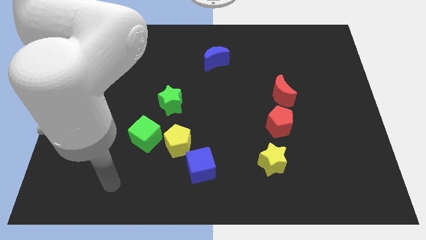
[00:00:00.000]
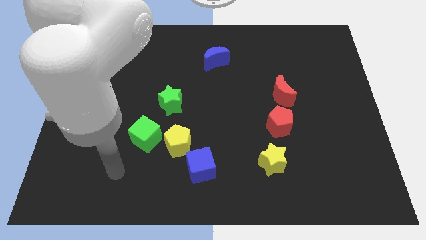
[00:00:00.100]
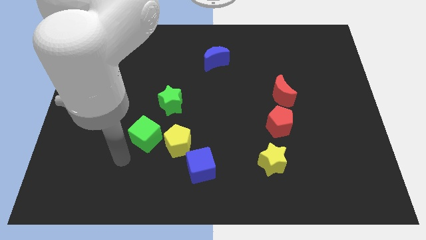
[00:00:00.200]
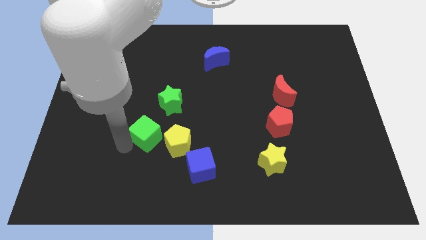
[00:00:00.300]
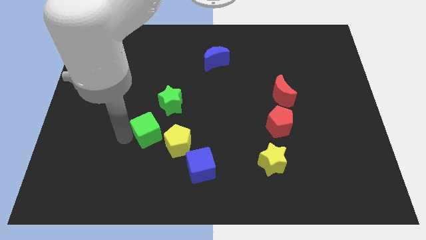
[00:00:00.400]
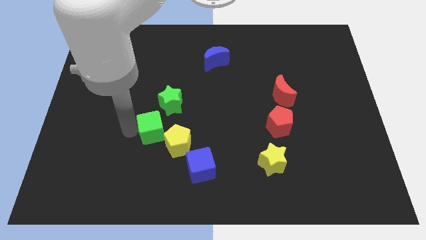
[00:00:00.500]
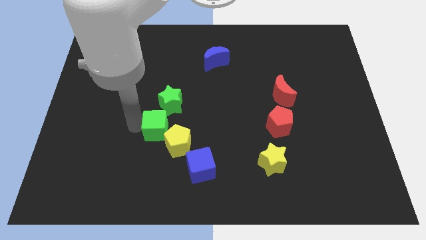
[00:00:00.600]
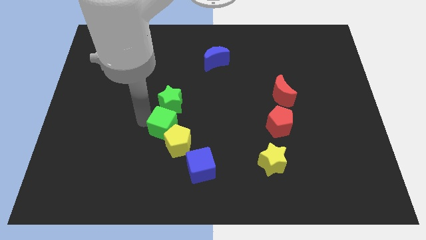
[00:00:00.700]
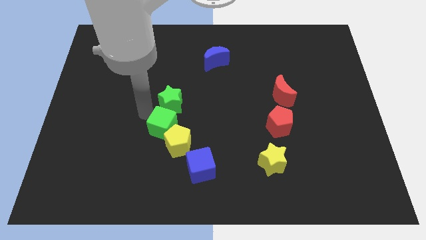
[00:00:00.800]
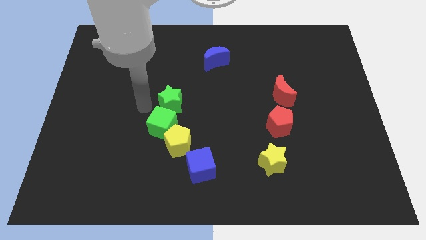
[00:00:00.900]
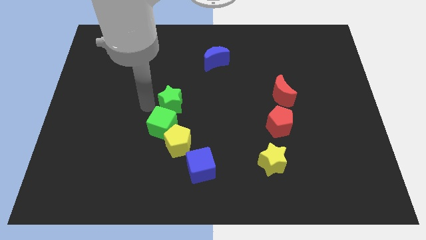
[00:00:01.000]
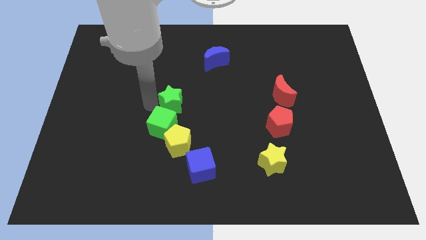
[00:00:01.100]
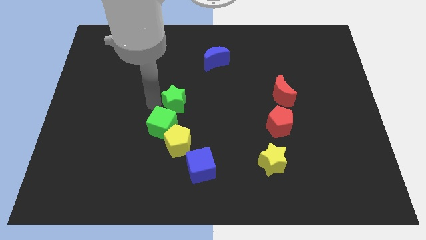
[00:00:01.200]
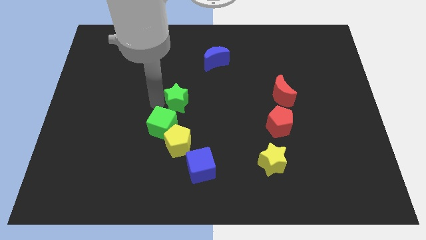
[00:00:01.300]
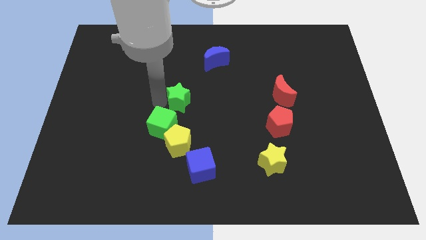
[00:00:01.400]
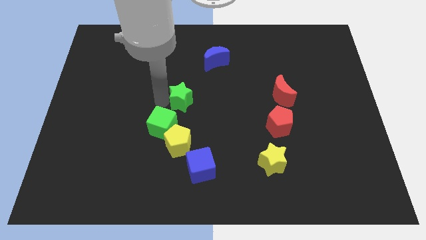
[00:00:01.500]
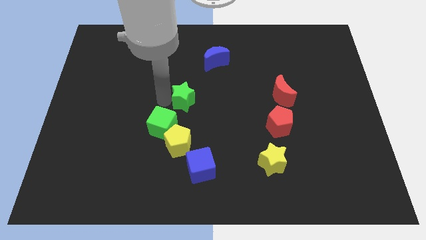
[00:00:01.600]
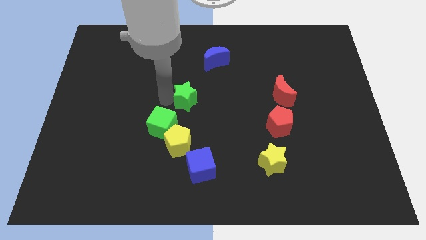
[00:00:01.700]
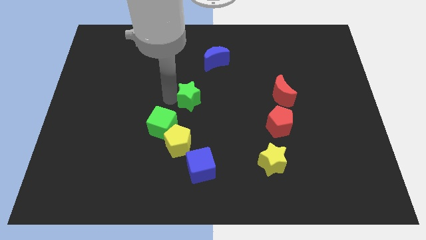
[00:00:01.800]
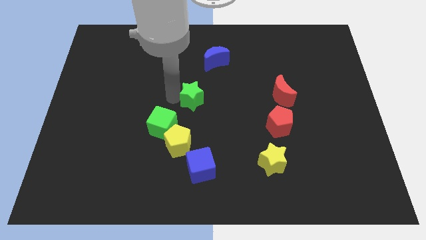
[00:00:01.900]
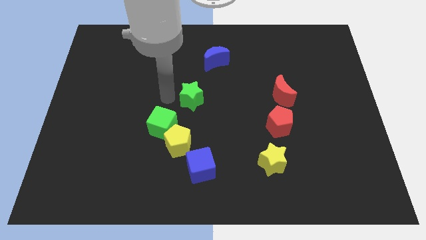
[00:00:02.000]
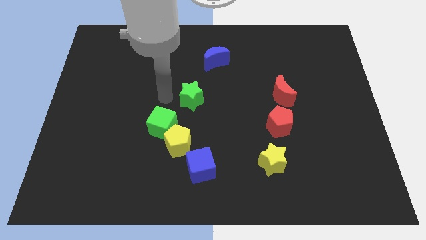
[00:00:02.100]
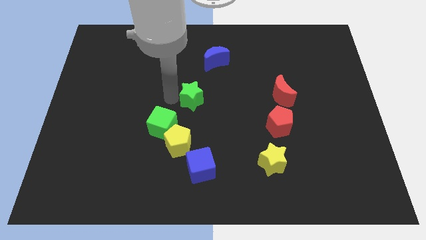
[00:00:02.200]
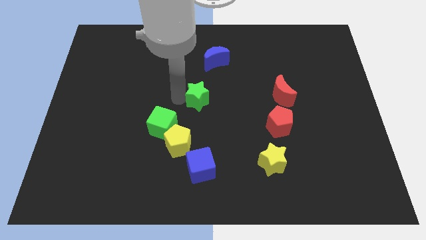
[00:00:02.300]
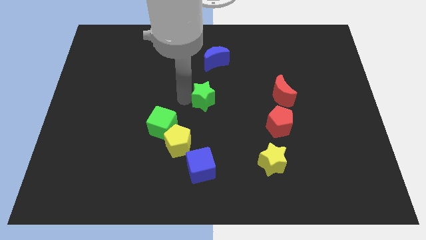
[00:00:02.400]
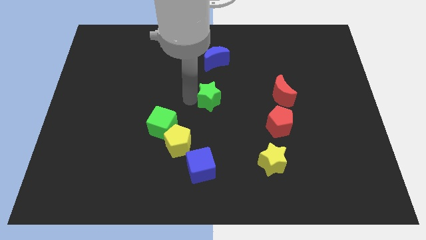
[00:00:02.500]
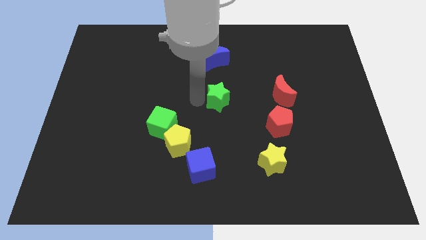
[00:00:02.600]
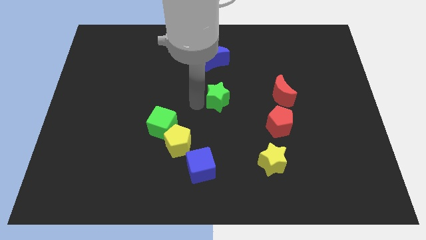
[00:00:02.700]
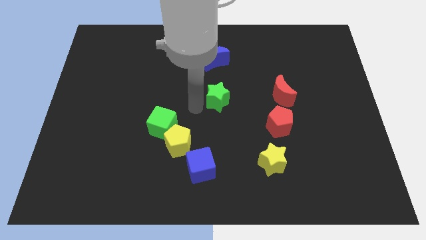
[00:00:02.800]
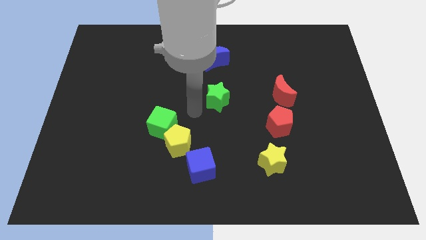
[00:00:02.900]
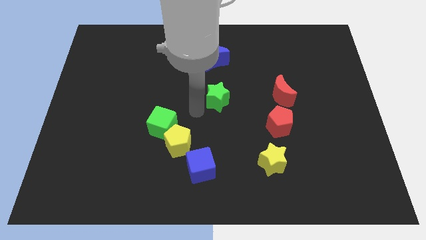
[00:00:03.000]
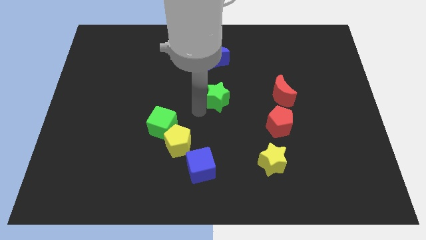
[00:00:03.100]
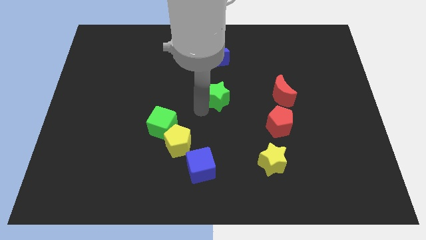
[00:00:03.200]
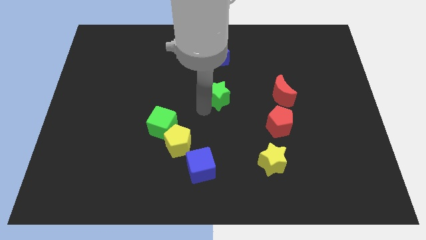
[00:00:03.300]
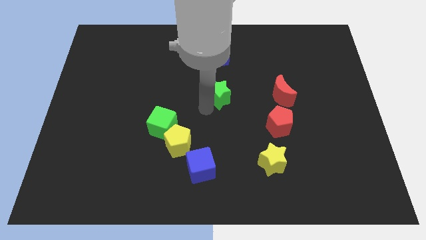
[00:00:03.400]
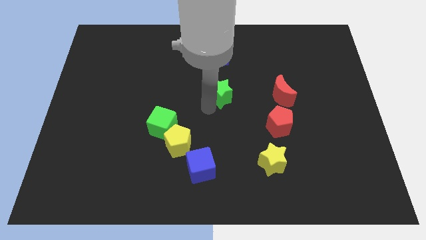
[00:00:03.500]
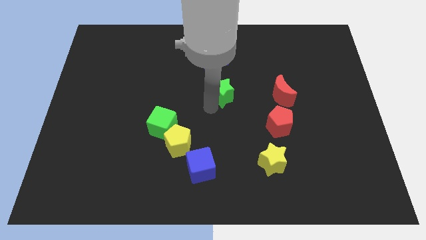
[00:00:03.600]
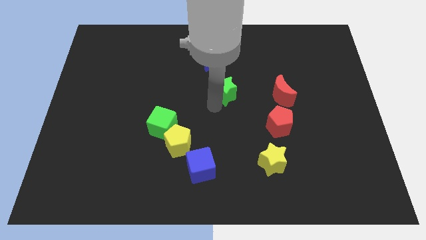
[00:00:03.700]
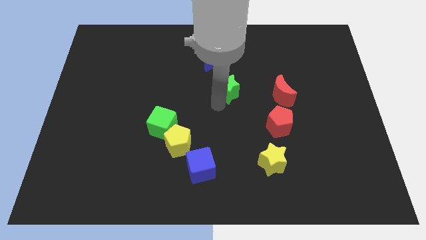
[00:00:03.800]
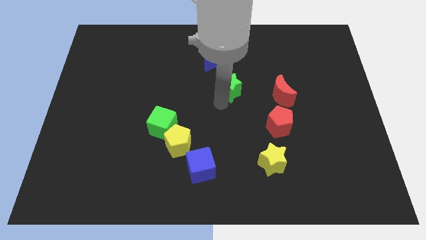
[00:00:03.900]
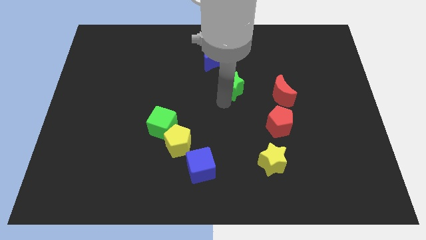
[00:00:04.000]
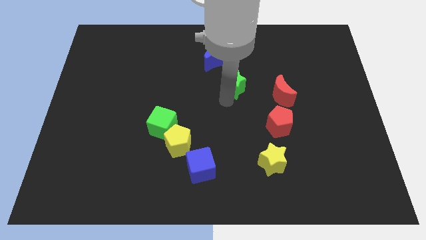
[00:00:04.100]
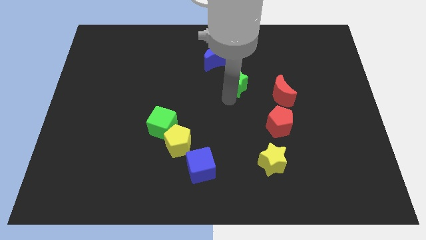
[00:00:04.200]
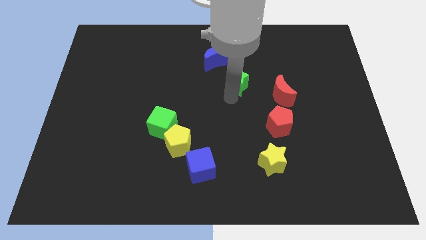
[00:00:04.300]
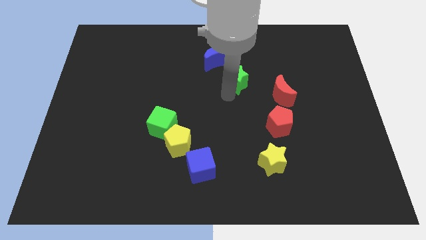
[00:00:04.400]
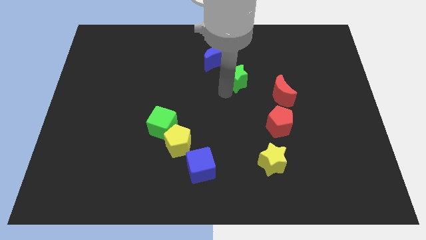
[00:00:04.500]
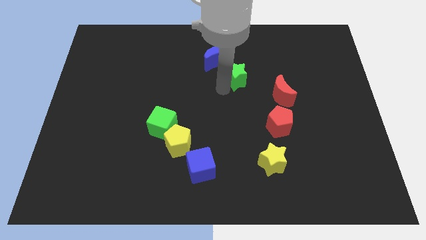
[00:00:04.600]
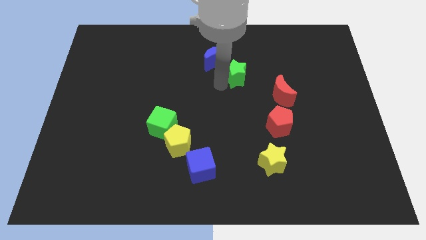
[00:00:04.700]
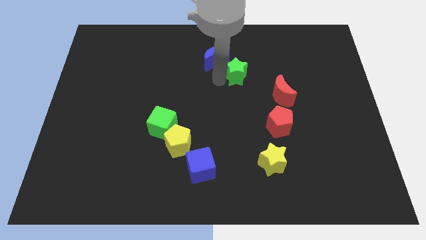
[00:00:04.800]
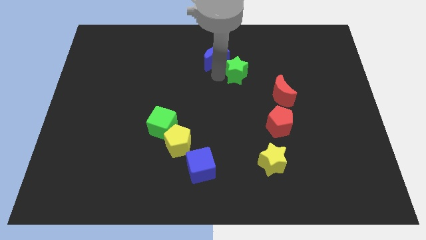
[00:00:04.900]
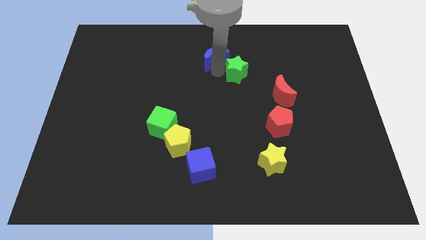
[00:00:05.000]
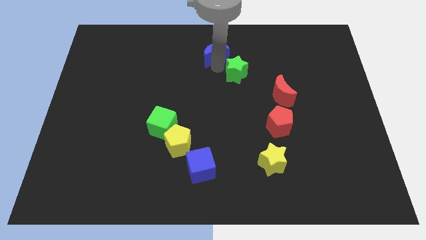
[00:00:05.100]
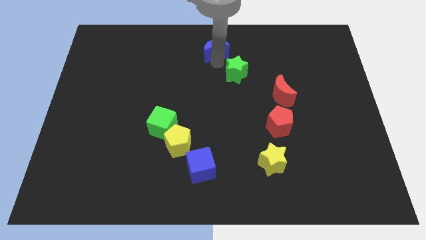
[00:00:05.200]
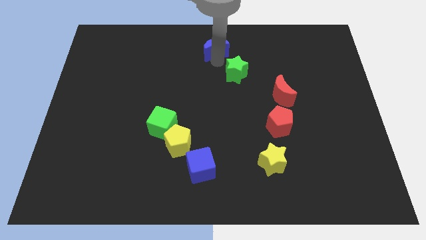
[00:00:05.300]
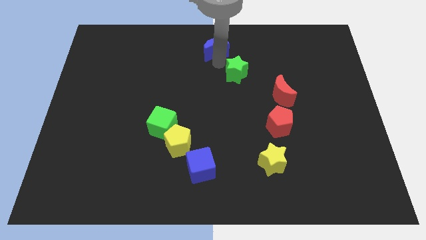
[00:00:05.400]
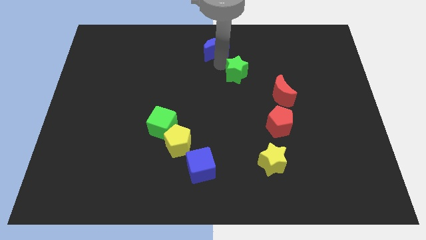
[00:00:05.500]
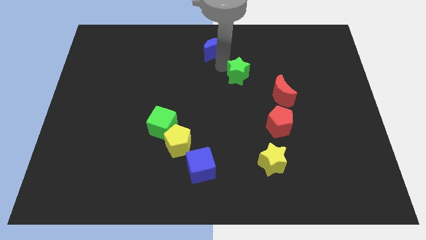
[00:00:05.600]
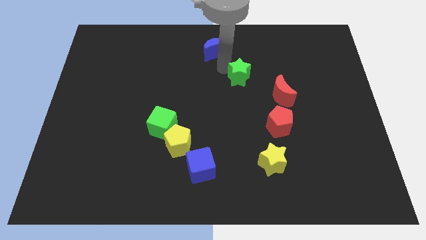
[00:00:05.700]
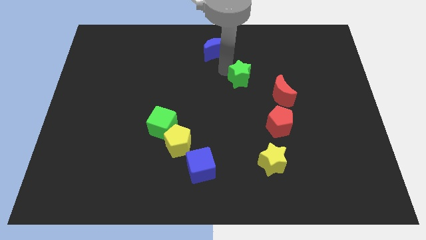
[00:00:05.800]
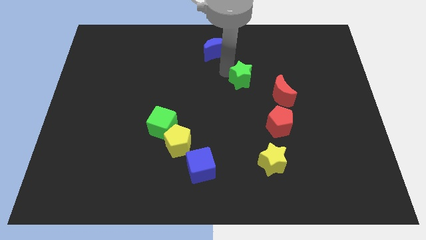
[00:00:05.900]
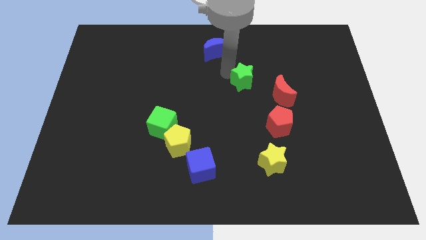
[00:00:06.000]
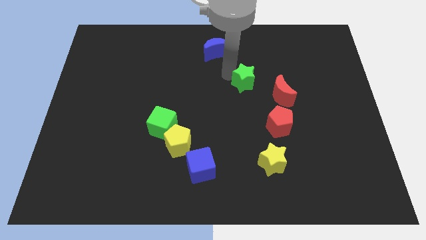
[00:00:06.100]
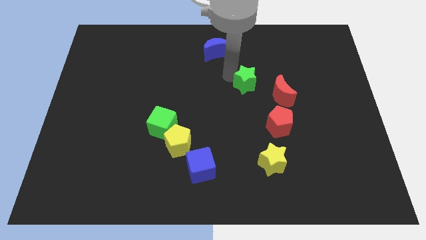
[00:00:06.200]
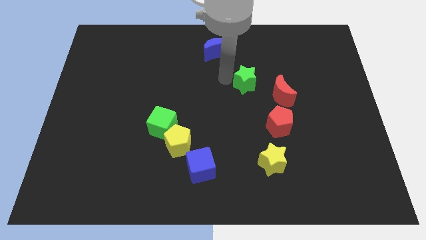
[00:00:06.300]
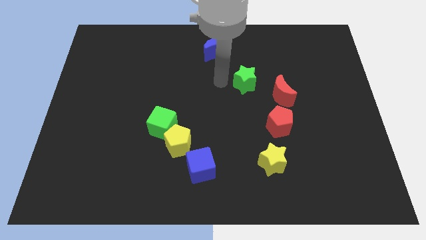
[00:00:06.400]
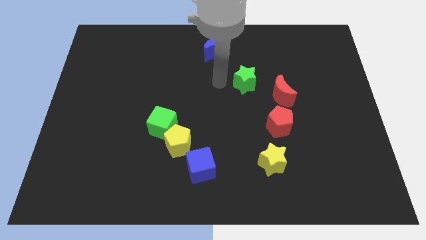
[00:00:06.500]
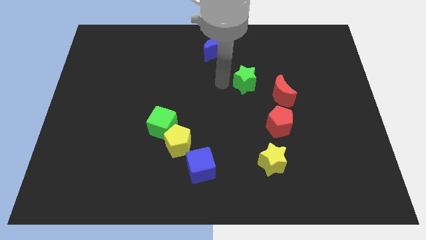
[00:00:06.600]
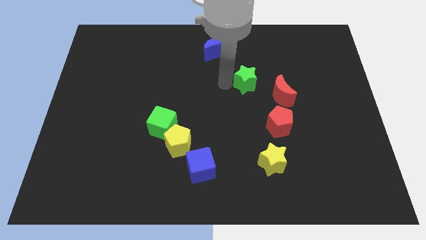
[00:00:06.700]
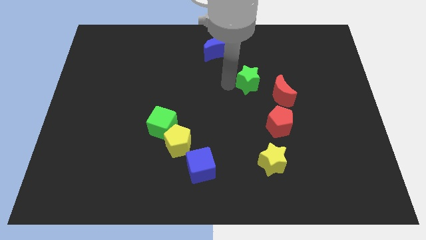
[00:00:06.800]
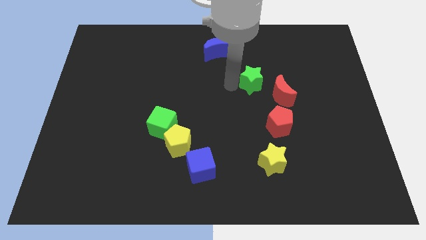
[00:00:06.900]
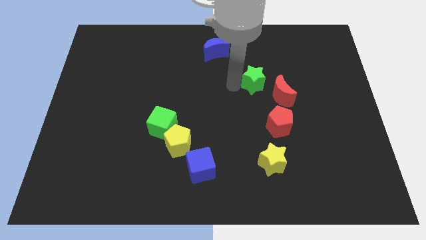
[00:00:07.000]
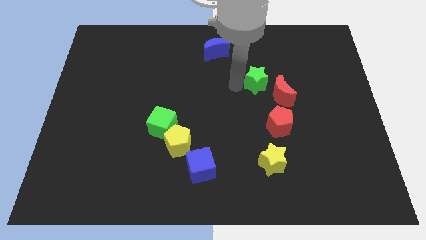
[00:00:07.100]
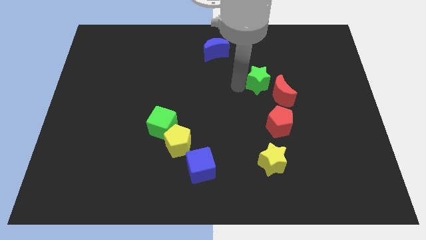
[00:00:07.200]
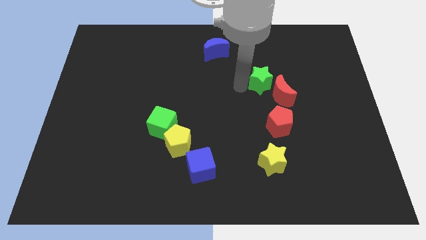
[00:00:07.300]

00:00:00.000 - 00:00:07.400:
push the green star to the right

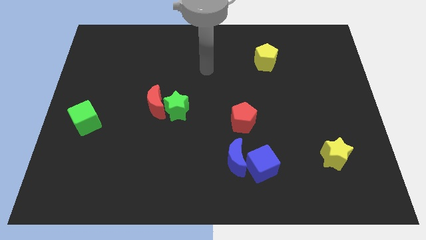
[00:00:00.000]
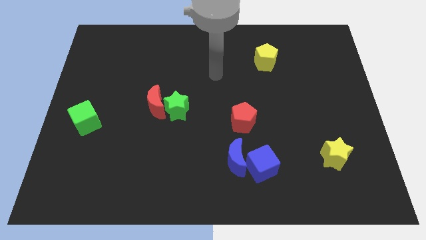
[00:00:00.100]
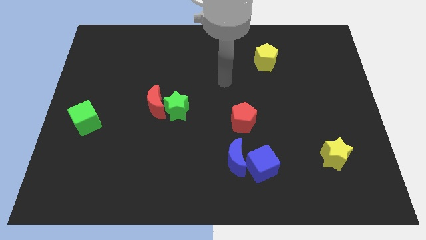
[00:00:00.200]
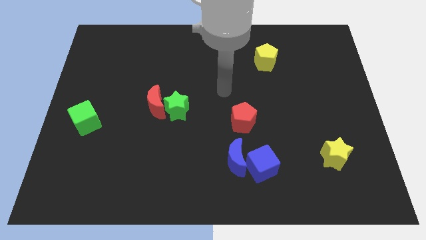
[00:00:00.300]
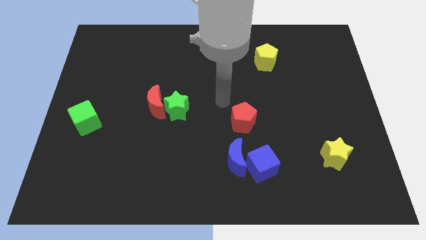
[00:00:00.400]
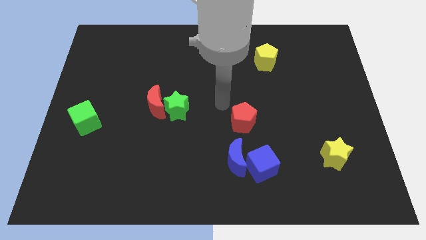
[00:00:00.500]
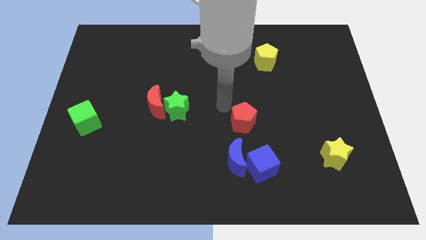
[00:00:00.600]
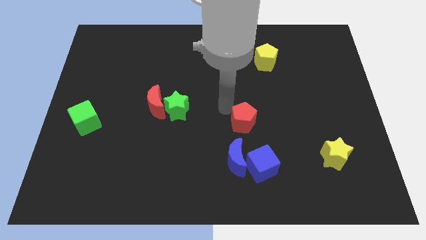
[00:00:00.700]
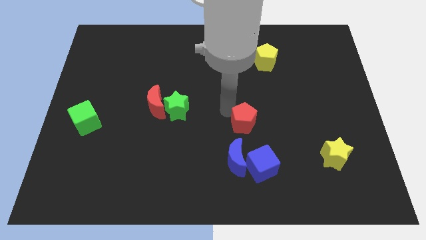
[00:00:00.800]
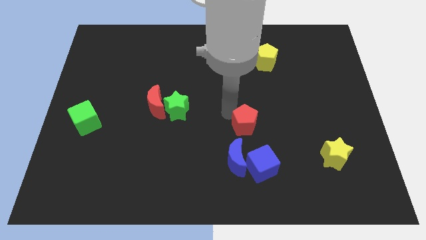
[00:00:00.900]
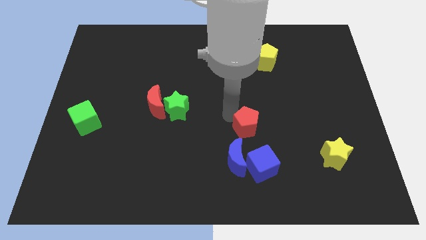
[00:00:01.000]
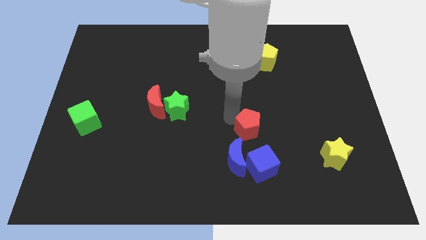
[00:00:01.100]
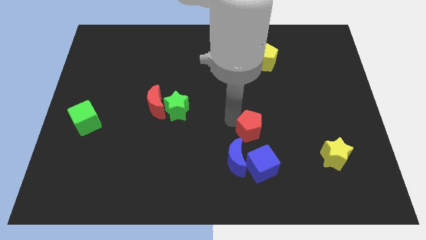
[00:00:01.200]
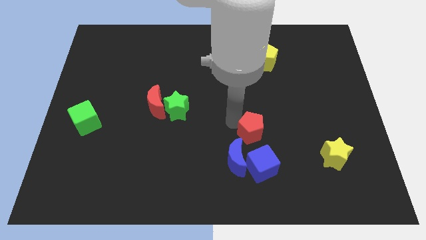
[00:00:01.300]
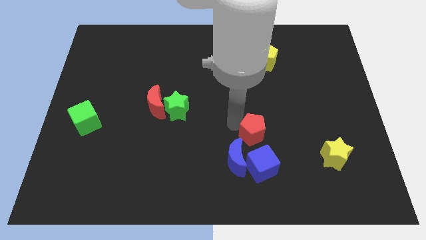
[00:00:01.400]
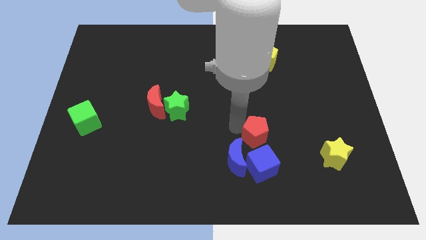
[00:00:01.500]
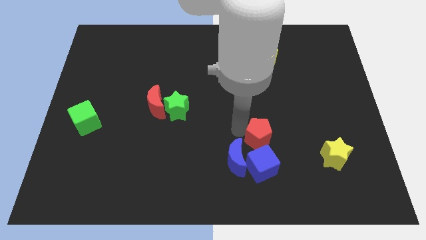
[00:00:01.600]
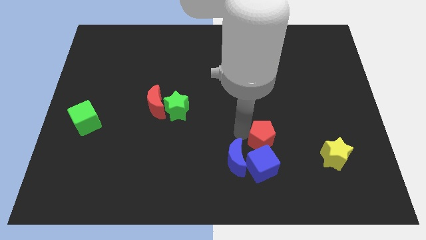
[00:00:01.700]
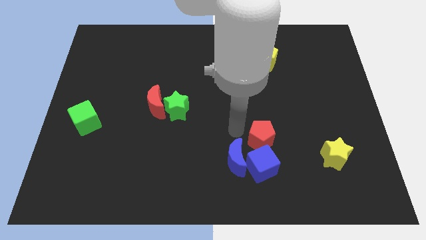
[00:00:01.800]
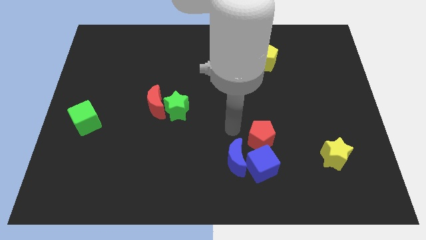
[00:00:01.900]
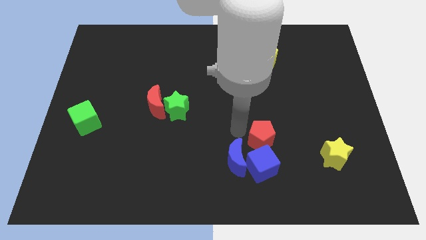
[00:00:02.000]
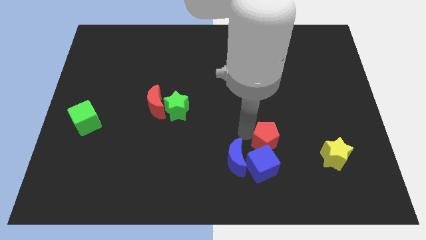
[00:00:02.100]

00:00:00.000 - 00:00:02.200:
move the red pentagon a bit downwards and then right
